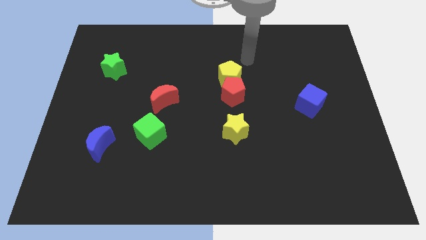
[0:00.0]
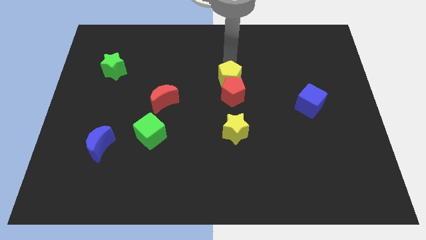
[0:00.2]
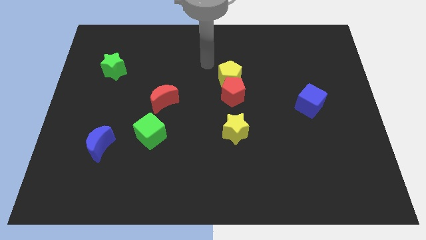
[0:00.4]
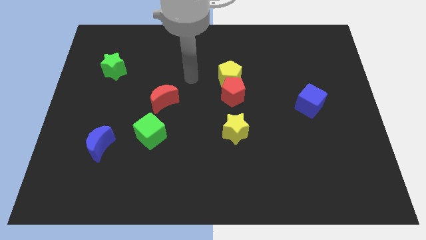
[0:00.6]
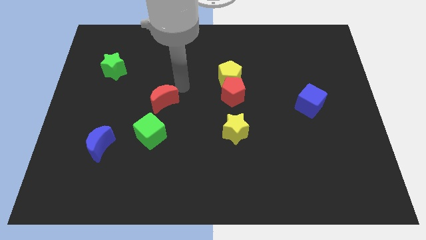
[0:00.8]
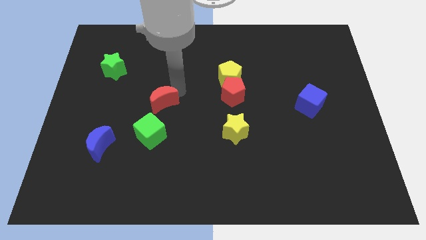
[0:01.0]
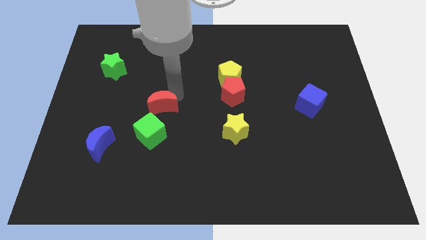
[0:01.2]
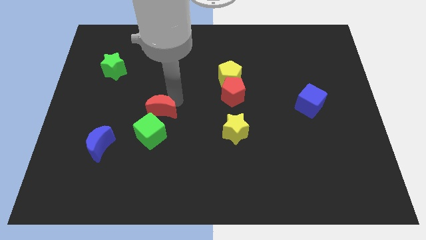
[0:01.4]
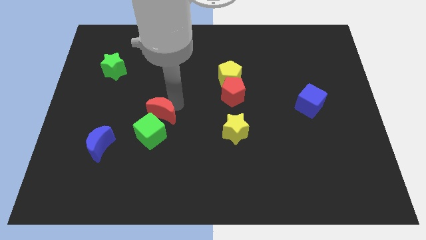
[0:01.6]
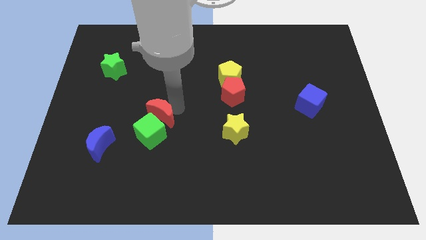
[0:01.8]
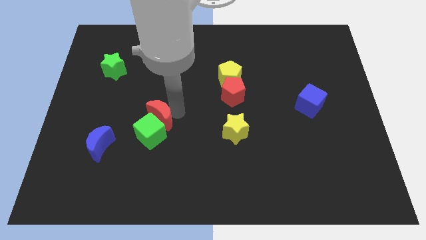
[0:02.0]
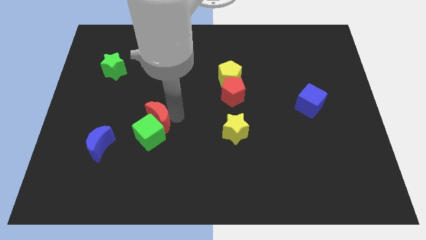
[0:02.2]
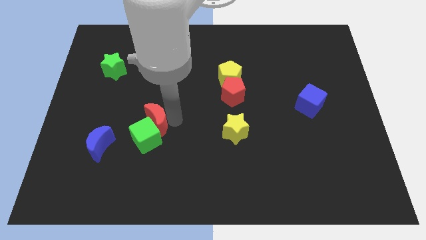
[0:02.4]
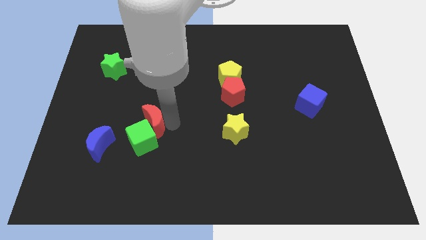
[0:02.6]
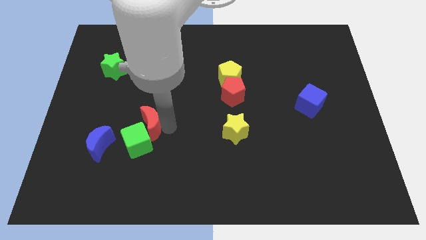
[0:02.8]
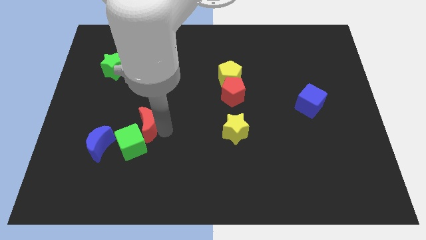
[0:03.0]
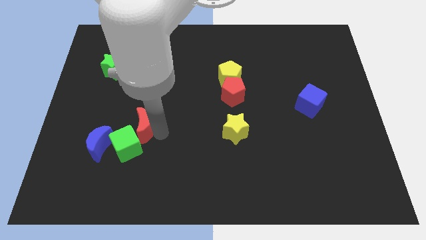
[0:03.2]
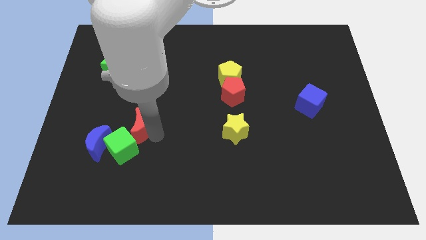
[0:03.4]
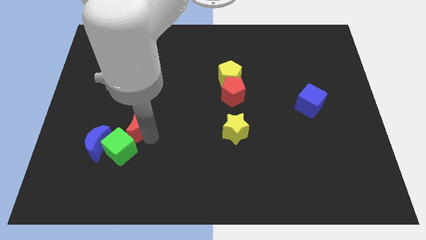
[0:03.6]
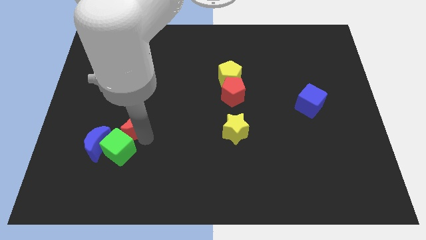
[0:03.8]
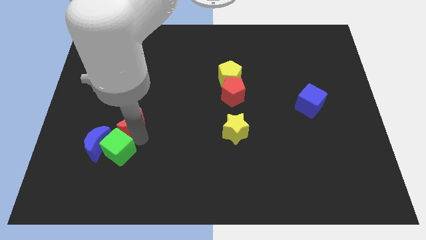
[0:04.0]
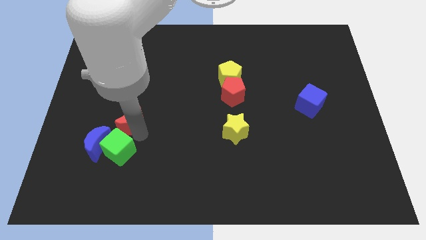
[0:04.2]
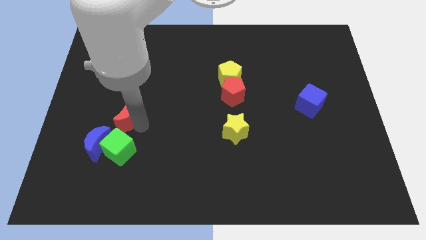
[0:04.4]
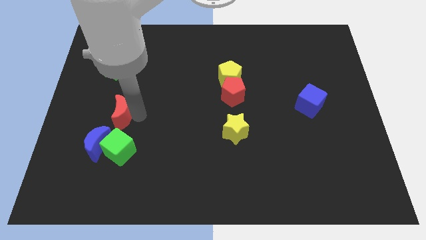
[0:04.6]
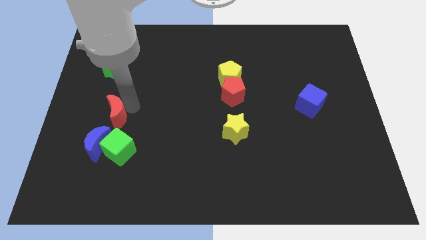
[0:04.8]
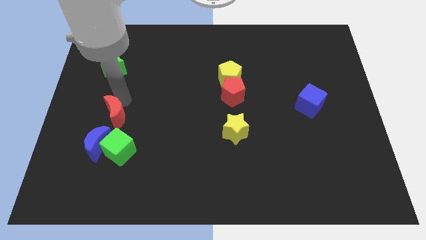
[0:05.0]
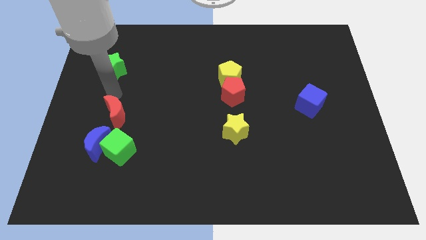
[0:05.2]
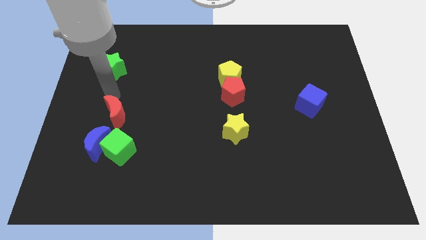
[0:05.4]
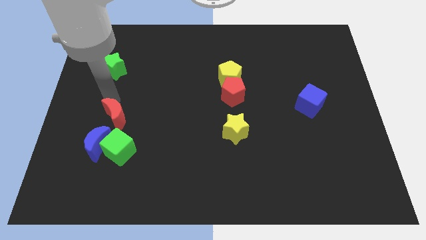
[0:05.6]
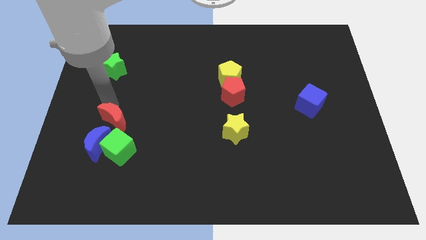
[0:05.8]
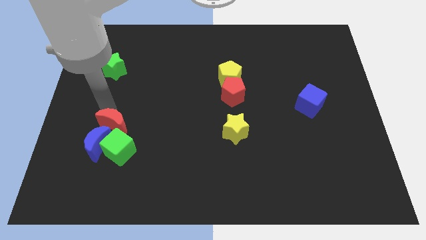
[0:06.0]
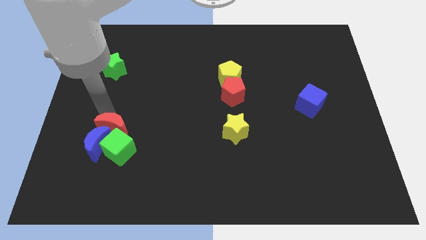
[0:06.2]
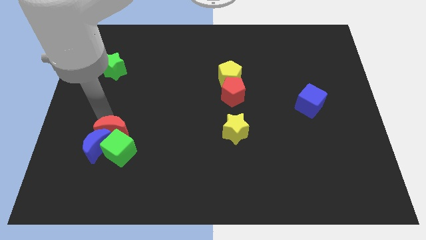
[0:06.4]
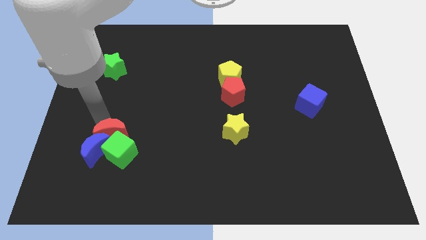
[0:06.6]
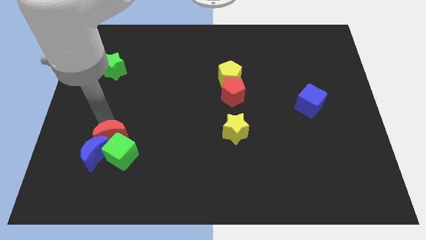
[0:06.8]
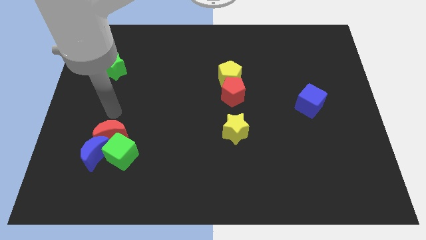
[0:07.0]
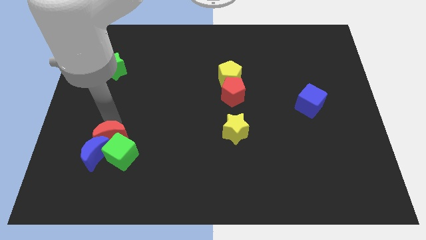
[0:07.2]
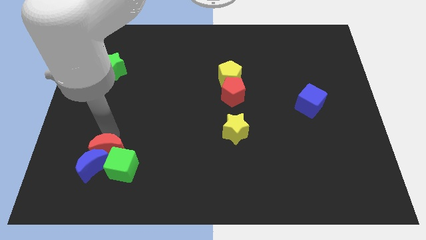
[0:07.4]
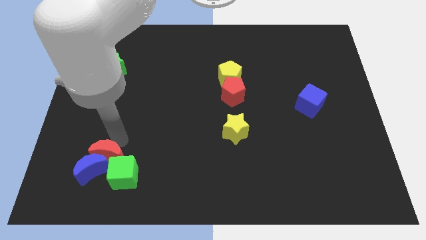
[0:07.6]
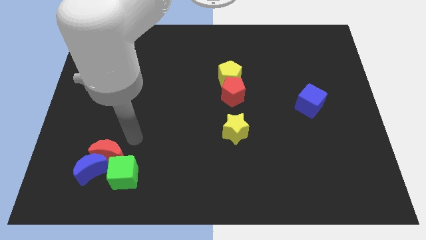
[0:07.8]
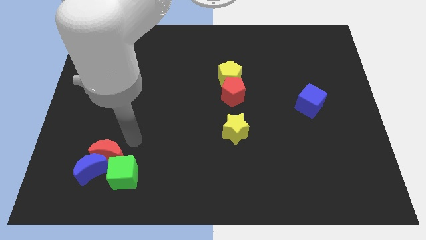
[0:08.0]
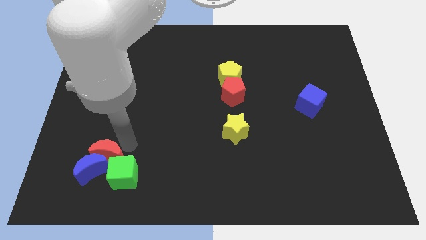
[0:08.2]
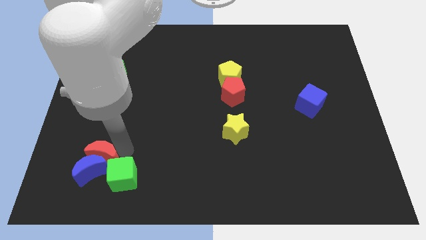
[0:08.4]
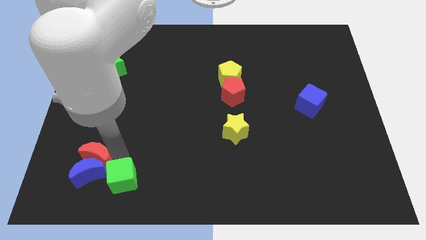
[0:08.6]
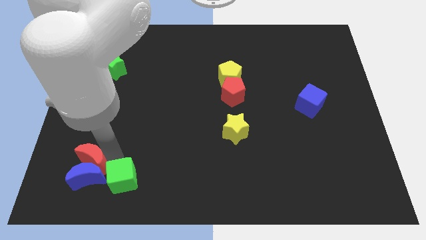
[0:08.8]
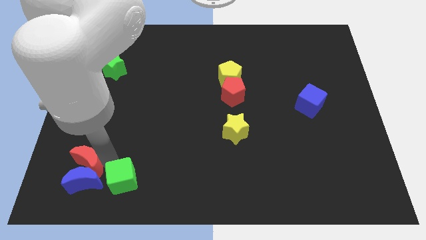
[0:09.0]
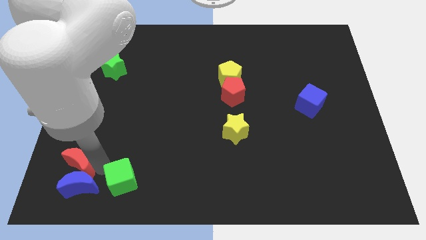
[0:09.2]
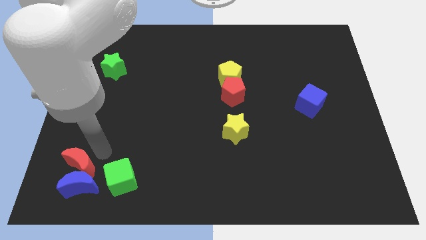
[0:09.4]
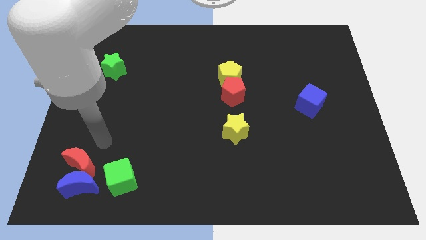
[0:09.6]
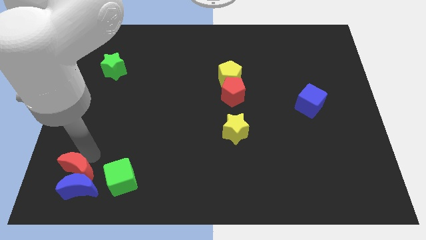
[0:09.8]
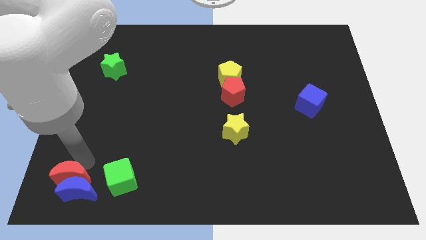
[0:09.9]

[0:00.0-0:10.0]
slide the red moon to the bottom left corner

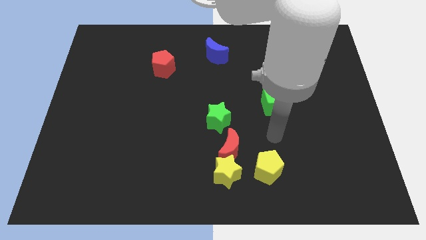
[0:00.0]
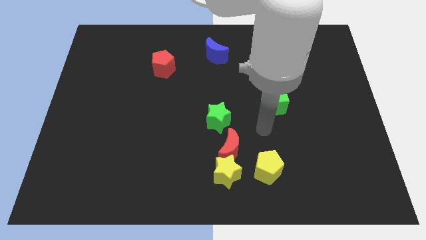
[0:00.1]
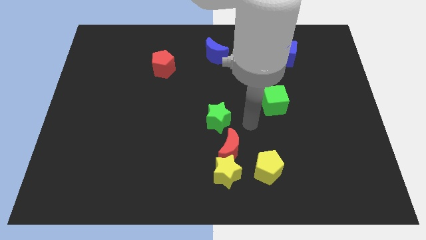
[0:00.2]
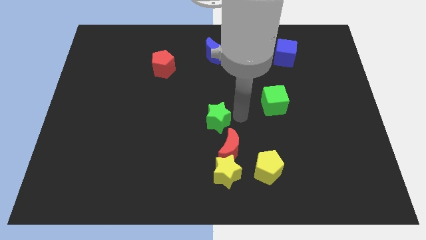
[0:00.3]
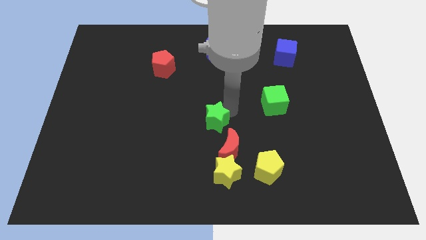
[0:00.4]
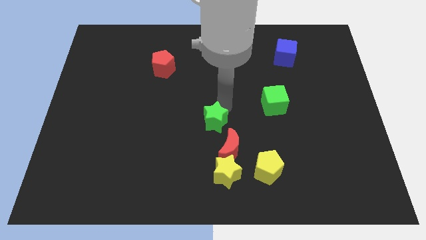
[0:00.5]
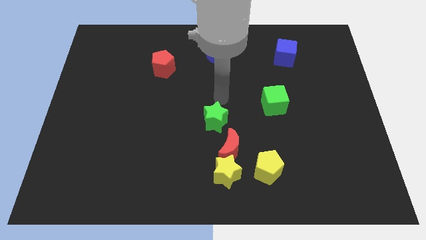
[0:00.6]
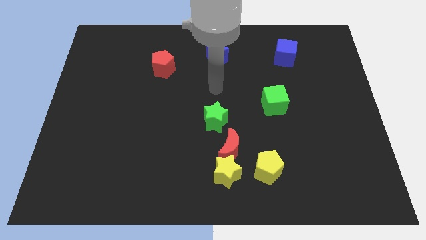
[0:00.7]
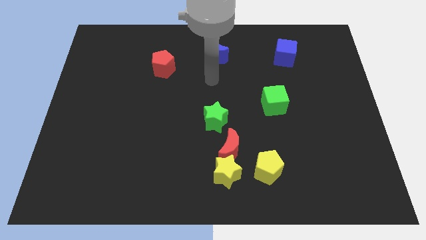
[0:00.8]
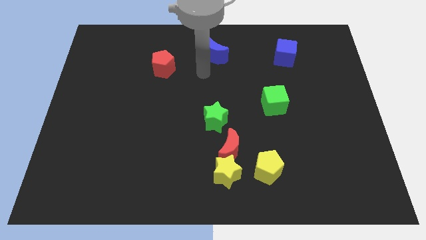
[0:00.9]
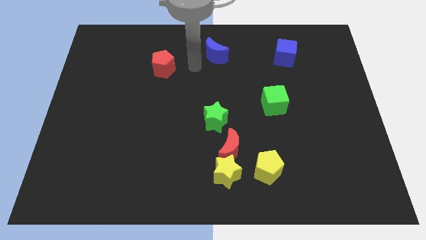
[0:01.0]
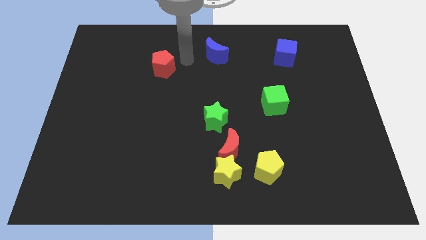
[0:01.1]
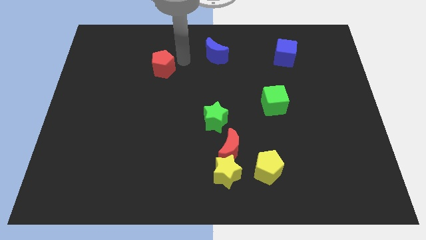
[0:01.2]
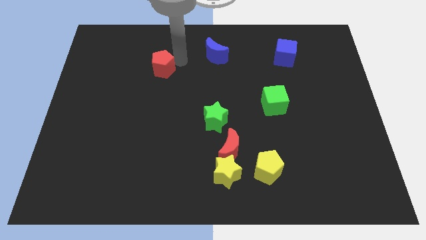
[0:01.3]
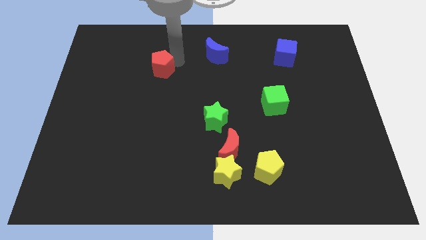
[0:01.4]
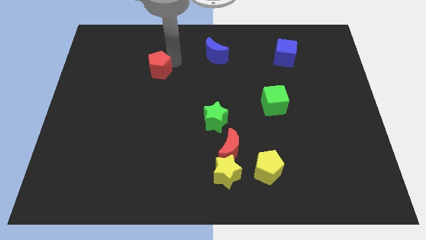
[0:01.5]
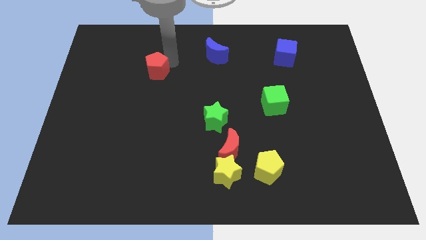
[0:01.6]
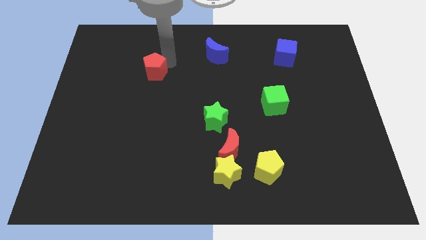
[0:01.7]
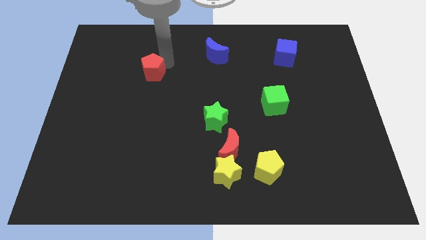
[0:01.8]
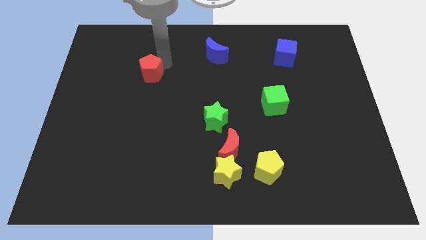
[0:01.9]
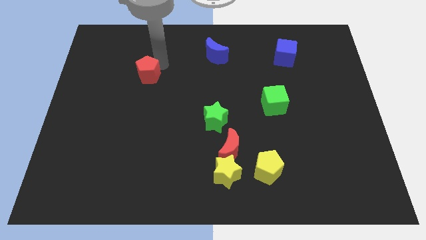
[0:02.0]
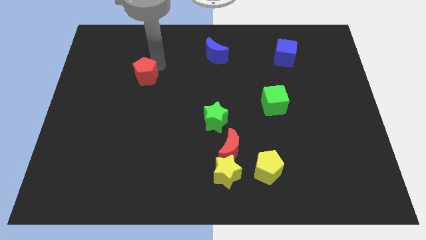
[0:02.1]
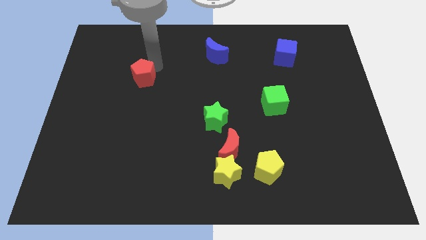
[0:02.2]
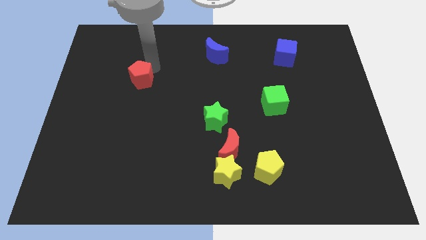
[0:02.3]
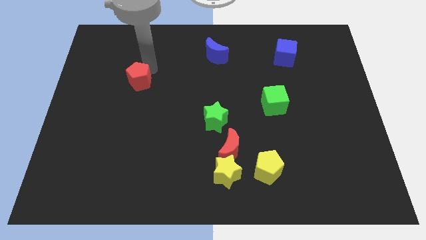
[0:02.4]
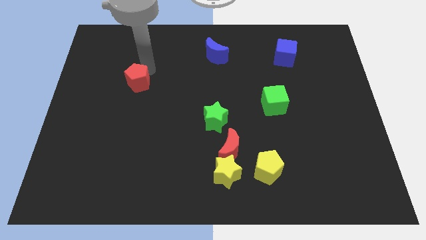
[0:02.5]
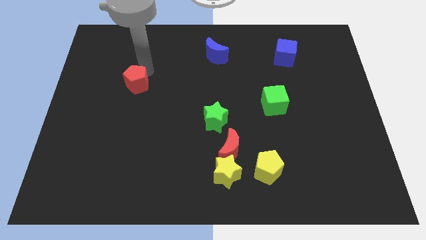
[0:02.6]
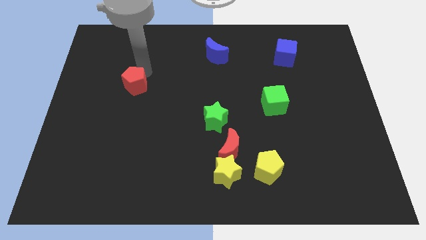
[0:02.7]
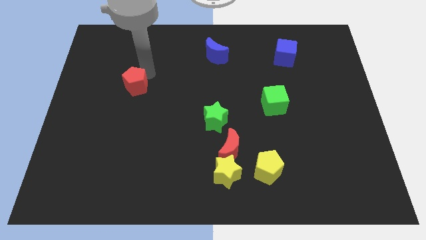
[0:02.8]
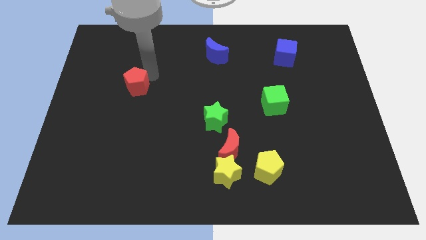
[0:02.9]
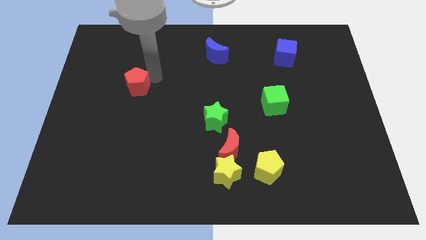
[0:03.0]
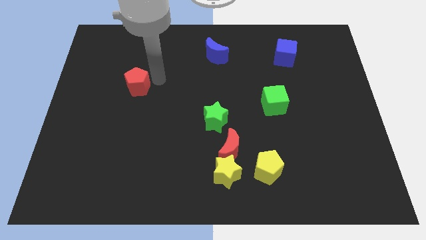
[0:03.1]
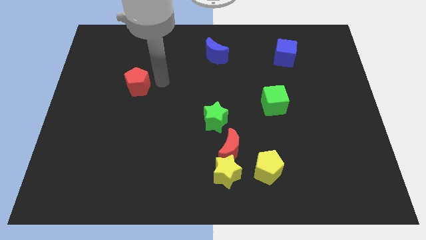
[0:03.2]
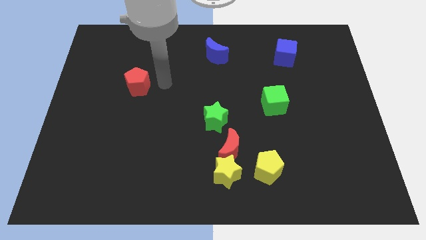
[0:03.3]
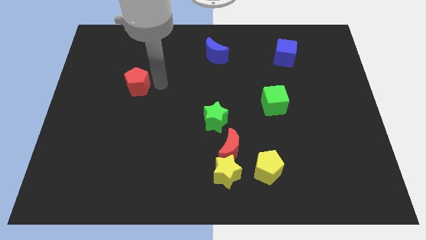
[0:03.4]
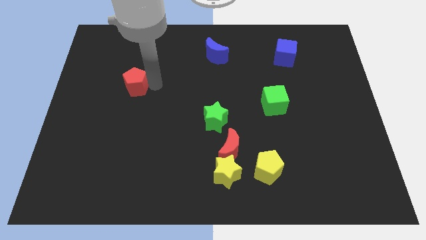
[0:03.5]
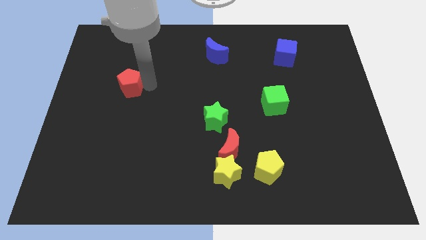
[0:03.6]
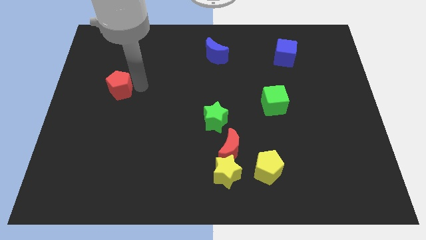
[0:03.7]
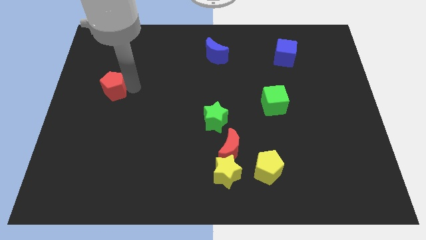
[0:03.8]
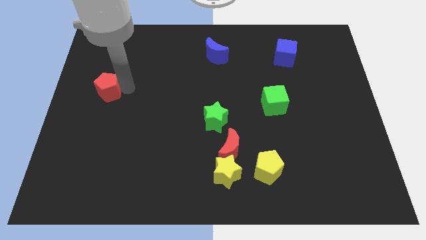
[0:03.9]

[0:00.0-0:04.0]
put the red pentagon to the left side
